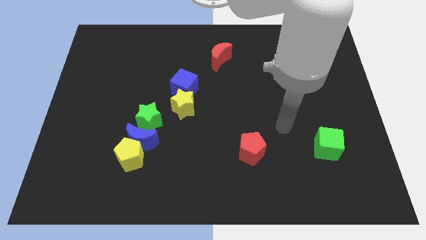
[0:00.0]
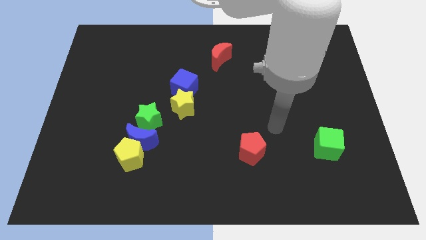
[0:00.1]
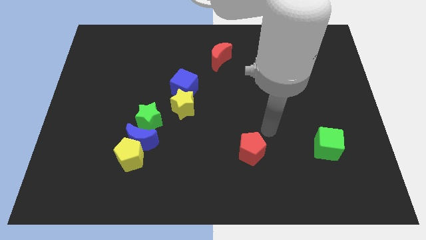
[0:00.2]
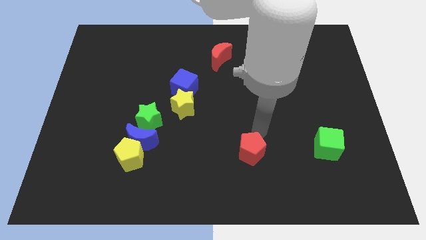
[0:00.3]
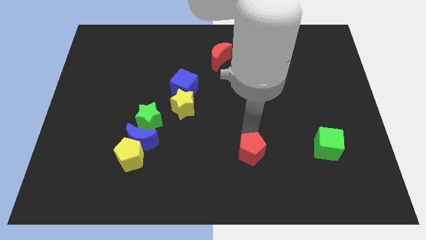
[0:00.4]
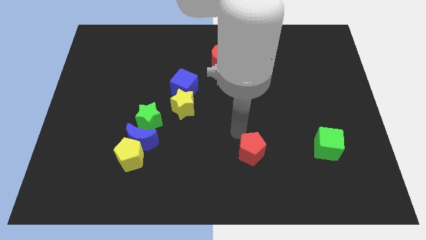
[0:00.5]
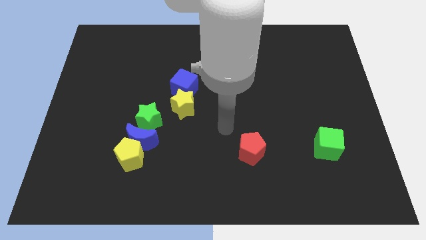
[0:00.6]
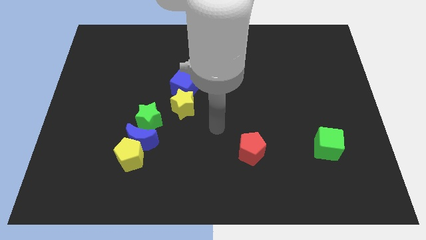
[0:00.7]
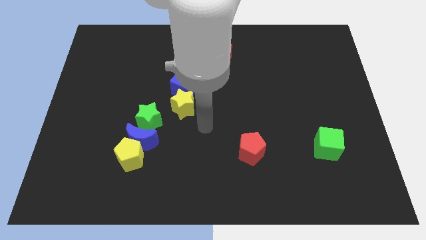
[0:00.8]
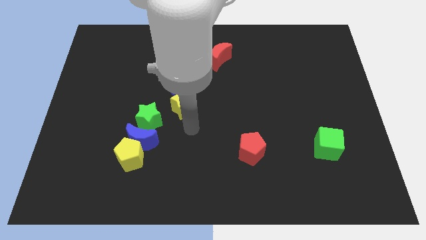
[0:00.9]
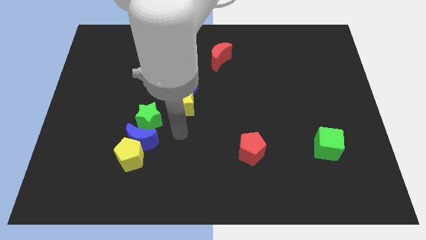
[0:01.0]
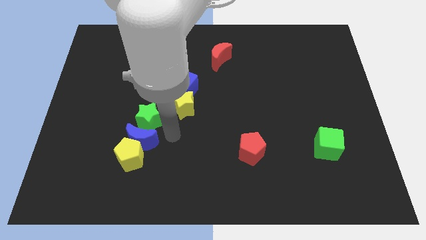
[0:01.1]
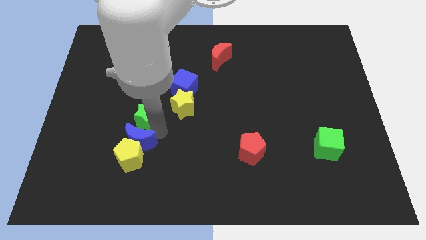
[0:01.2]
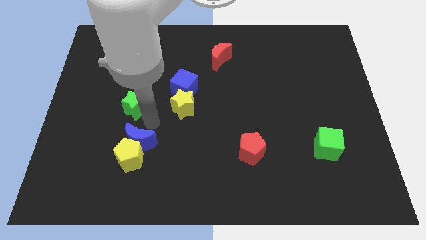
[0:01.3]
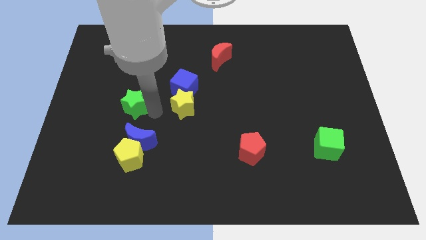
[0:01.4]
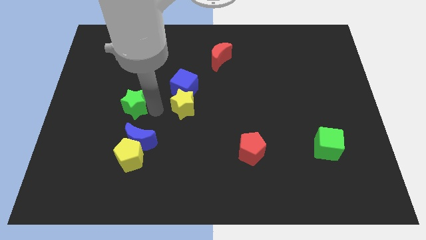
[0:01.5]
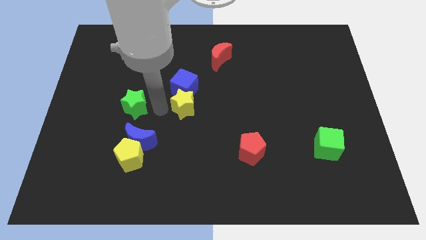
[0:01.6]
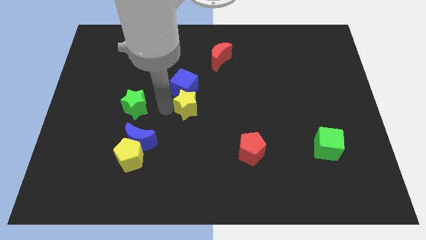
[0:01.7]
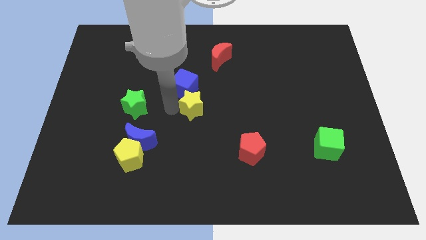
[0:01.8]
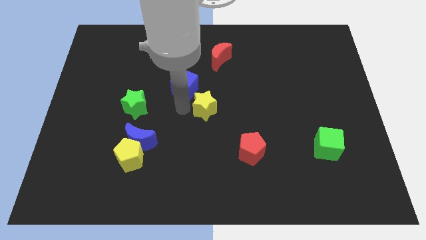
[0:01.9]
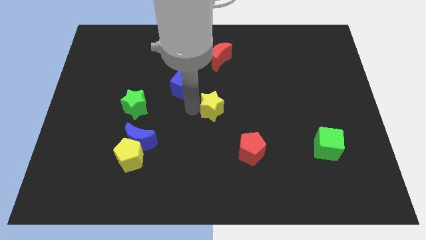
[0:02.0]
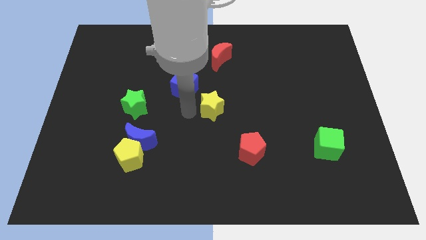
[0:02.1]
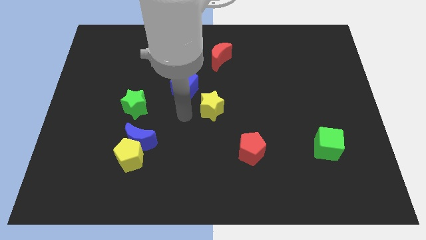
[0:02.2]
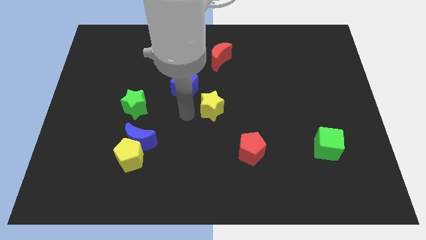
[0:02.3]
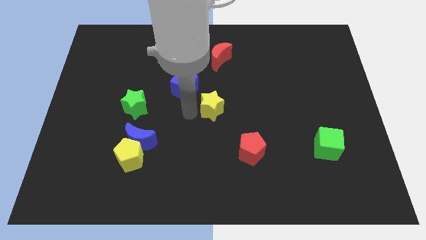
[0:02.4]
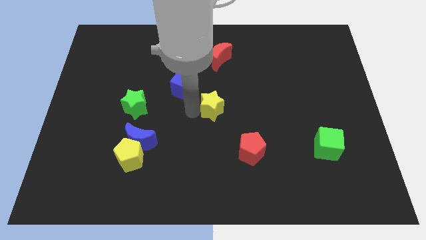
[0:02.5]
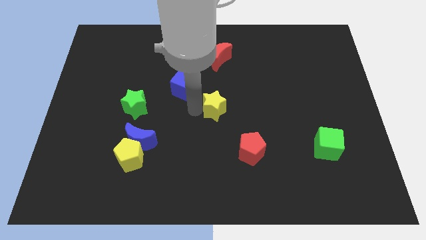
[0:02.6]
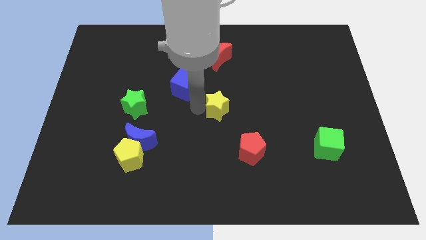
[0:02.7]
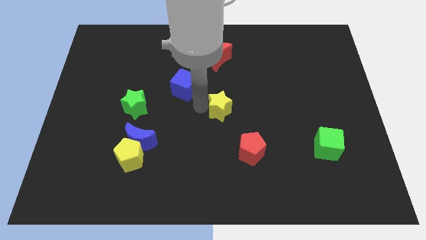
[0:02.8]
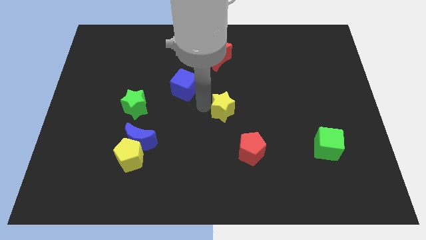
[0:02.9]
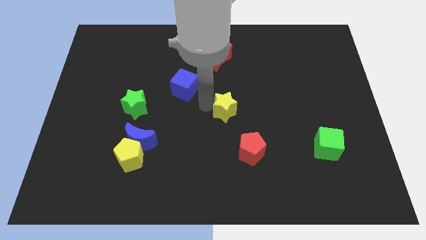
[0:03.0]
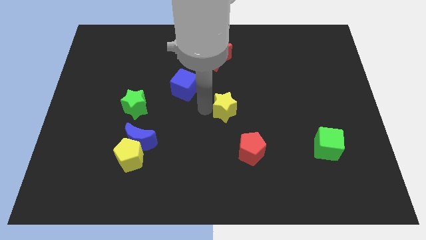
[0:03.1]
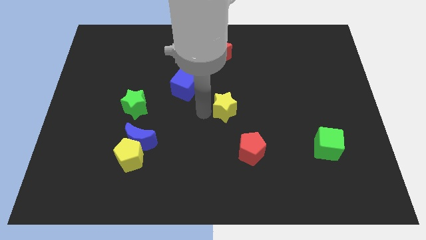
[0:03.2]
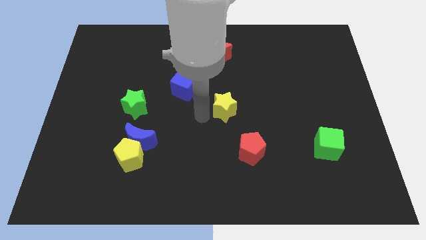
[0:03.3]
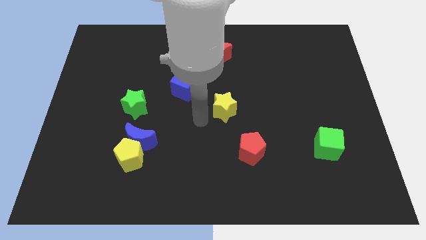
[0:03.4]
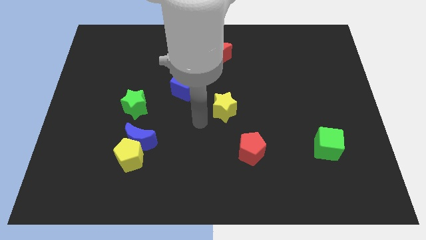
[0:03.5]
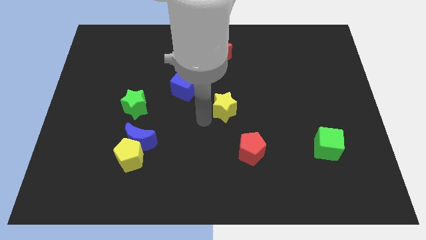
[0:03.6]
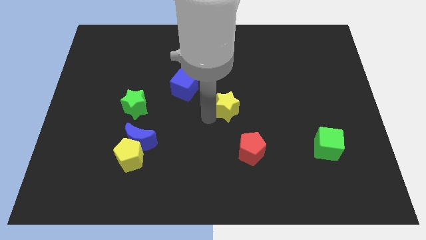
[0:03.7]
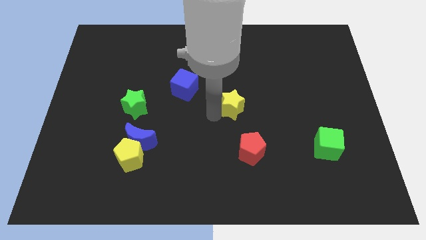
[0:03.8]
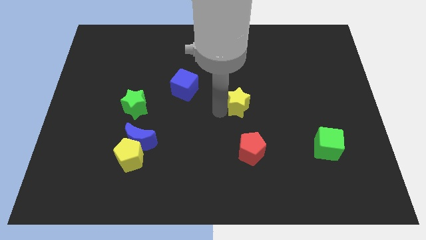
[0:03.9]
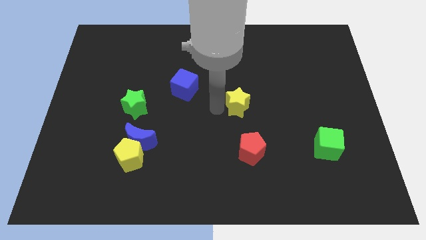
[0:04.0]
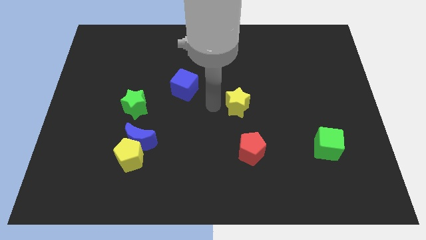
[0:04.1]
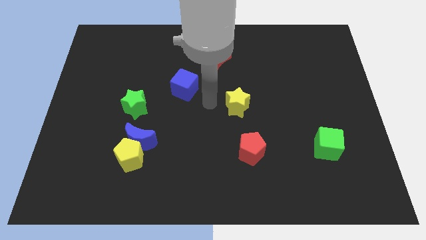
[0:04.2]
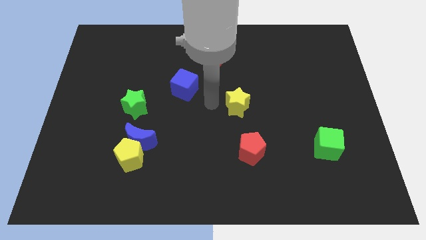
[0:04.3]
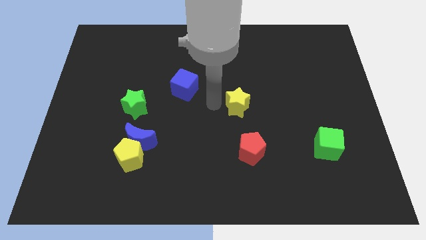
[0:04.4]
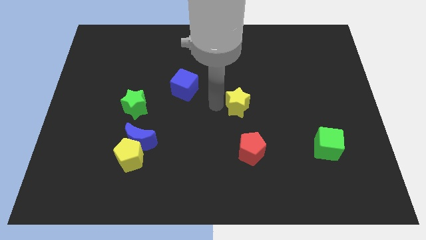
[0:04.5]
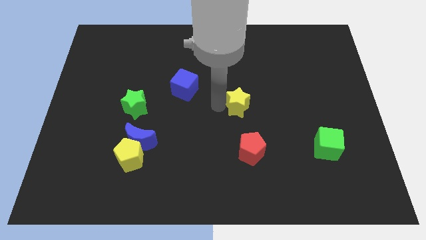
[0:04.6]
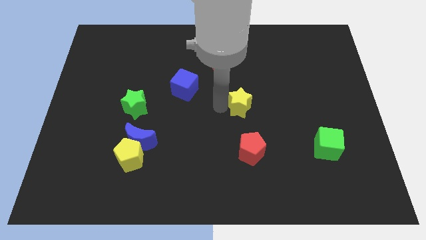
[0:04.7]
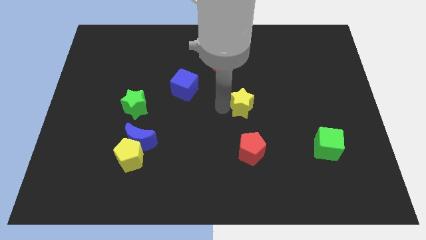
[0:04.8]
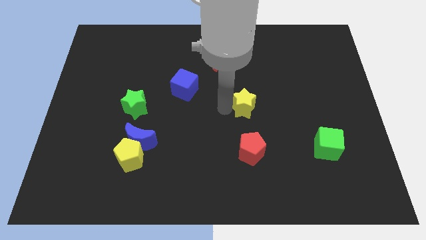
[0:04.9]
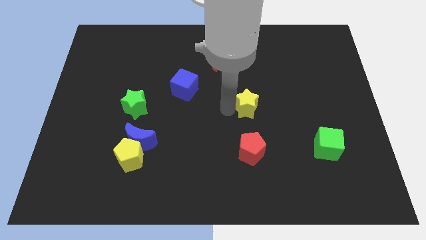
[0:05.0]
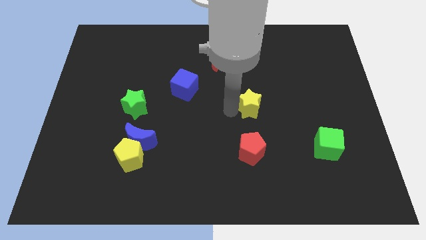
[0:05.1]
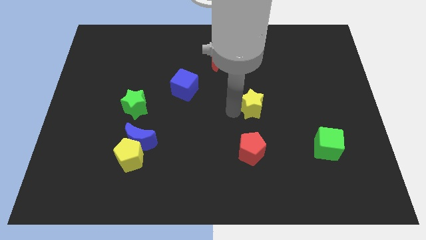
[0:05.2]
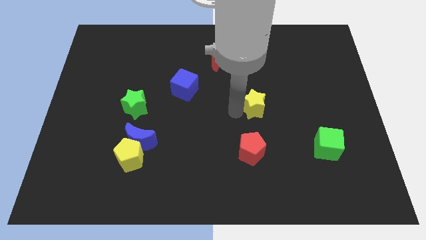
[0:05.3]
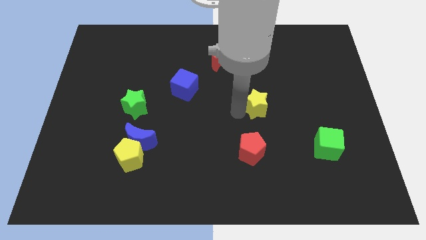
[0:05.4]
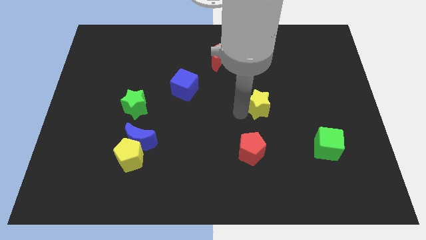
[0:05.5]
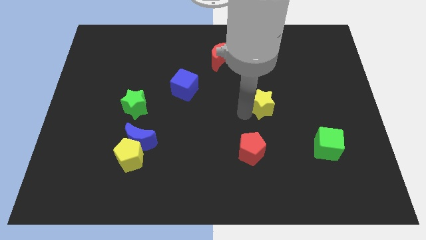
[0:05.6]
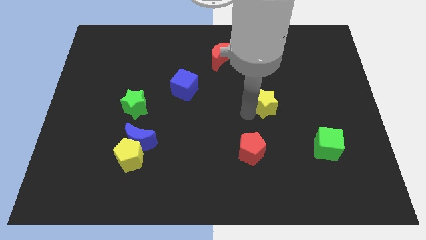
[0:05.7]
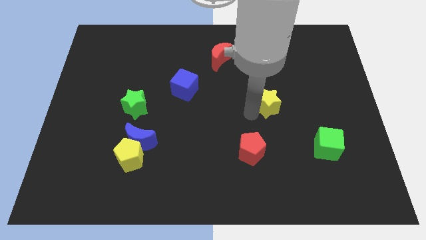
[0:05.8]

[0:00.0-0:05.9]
push the yellow star to the right

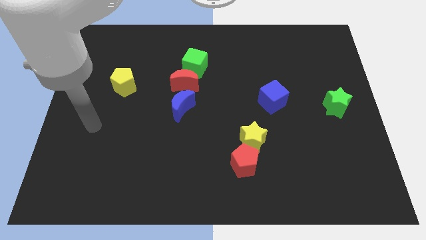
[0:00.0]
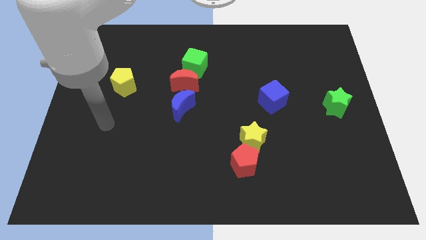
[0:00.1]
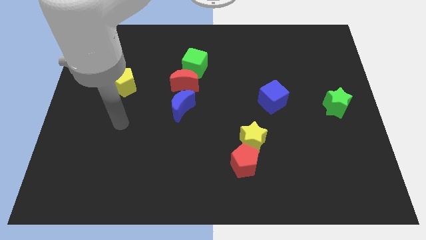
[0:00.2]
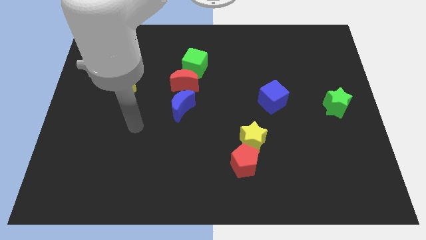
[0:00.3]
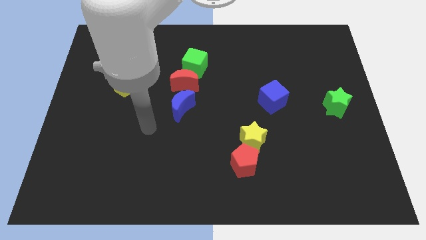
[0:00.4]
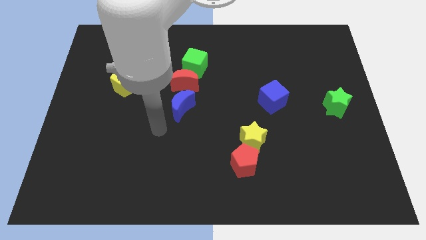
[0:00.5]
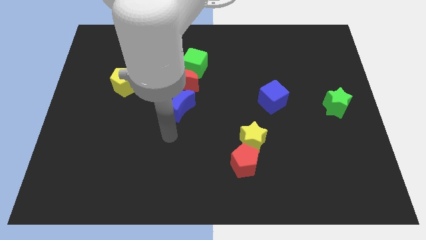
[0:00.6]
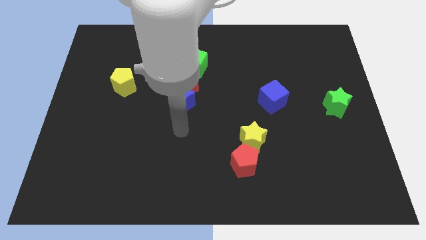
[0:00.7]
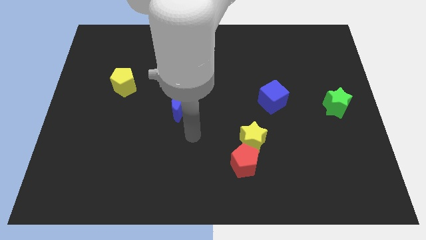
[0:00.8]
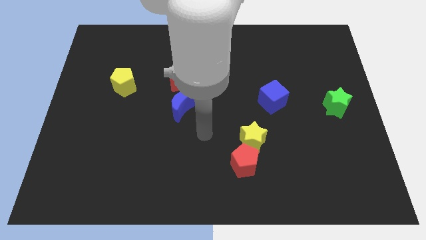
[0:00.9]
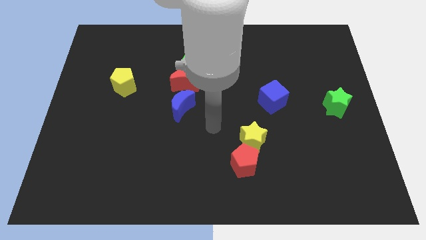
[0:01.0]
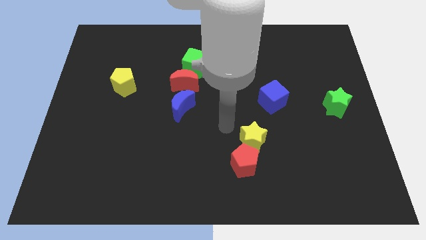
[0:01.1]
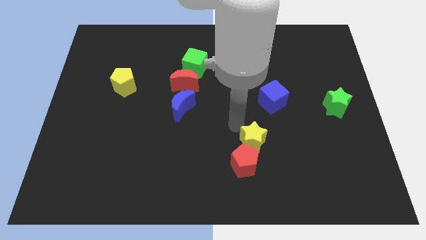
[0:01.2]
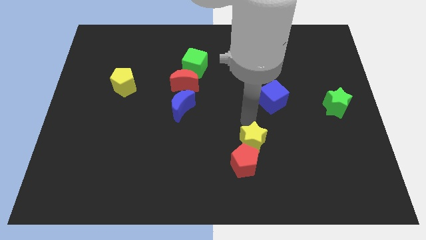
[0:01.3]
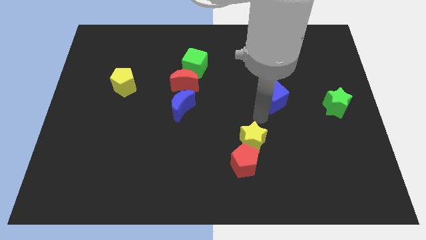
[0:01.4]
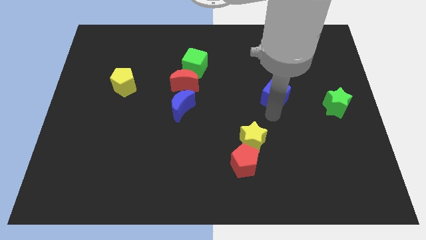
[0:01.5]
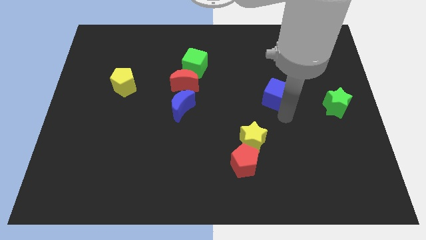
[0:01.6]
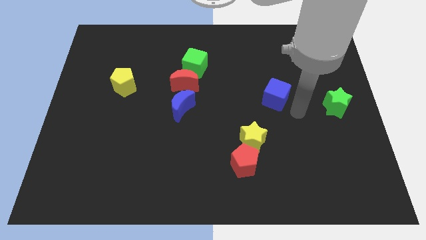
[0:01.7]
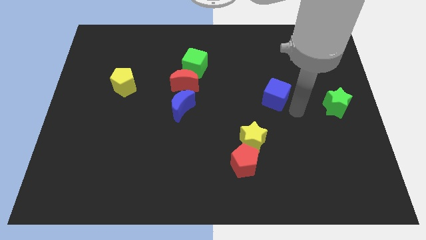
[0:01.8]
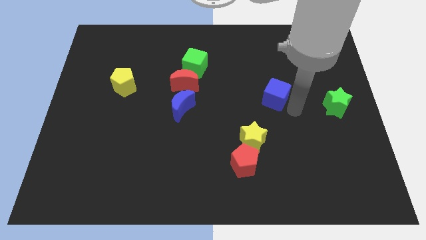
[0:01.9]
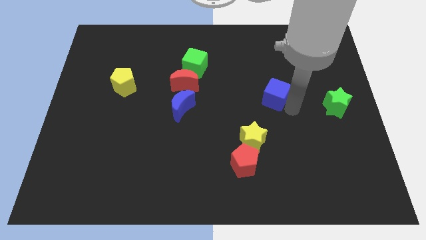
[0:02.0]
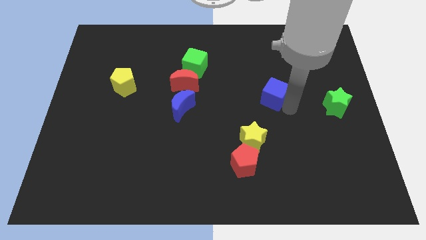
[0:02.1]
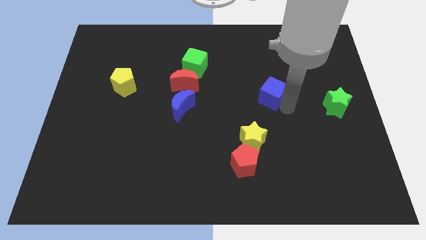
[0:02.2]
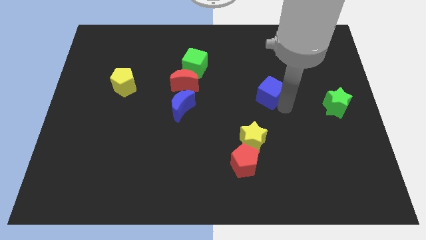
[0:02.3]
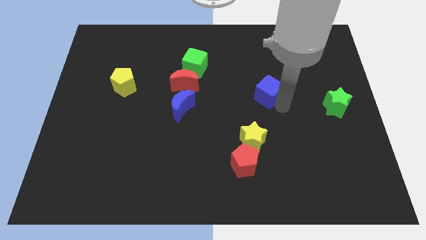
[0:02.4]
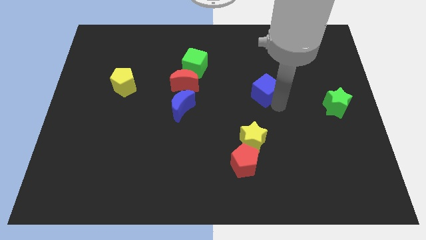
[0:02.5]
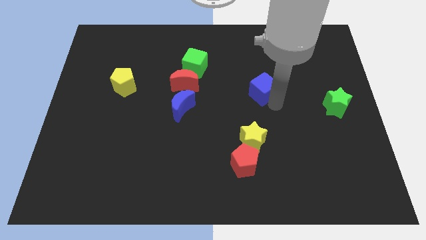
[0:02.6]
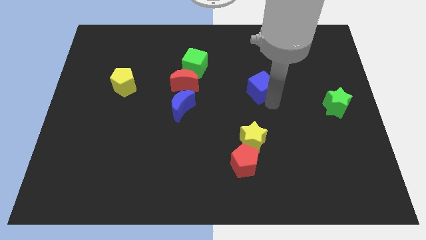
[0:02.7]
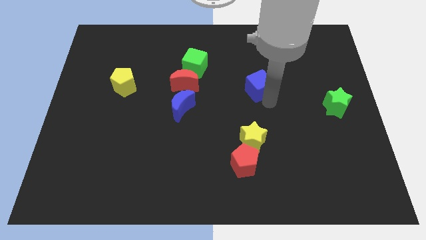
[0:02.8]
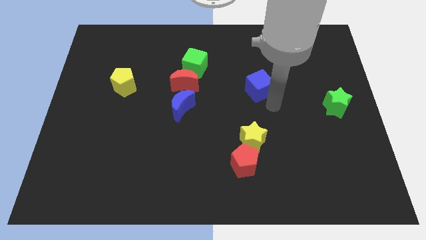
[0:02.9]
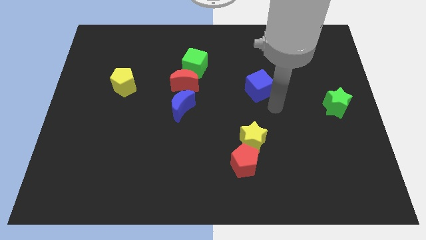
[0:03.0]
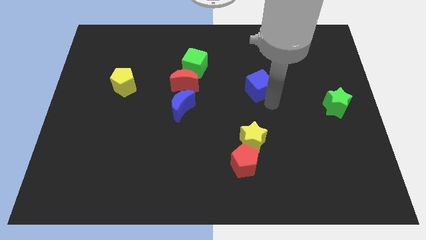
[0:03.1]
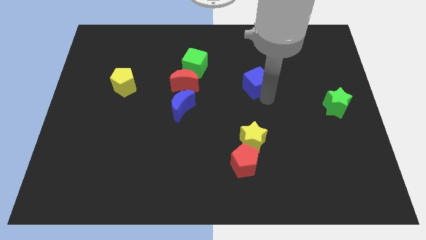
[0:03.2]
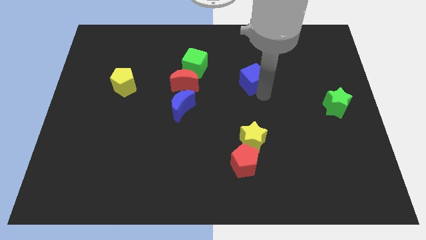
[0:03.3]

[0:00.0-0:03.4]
move the blue cube somewhat upwards and to the left
